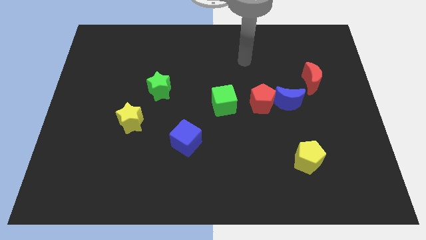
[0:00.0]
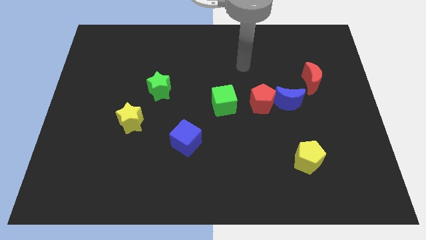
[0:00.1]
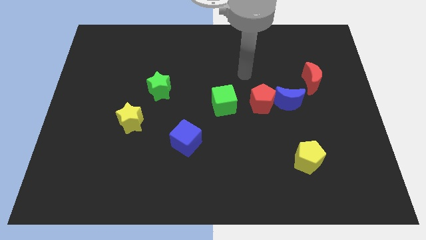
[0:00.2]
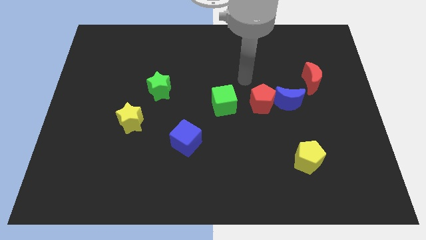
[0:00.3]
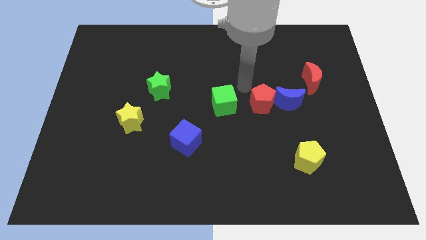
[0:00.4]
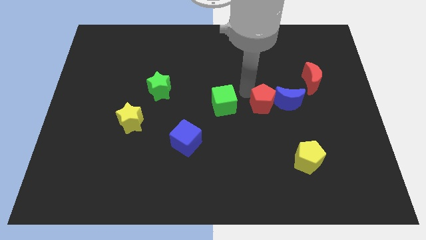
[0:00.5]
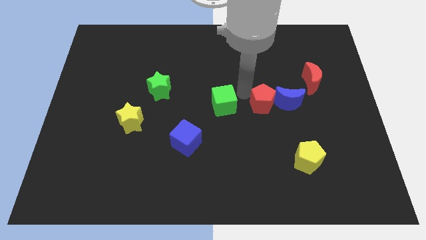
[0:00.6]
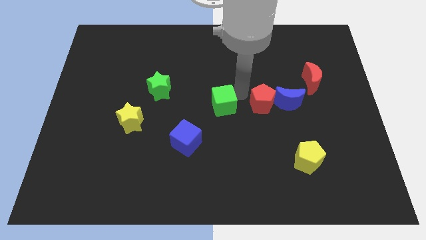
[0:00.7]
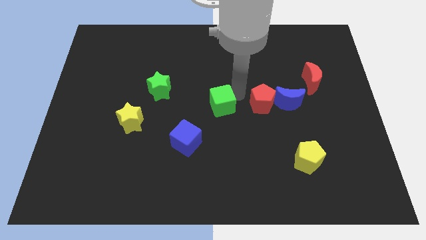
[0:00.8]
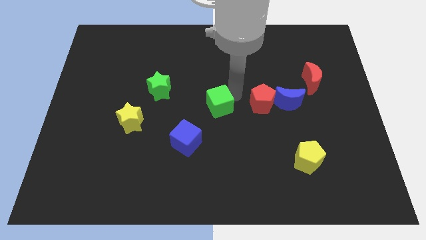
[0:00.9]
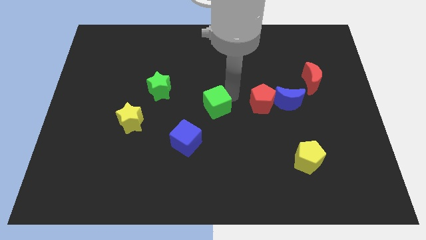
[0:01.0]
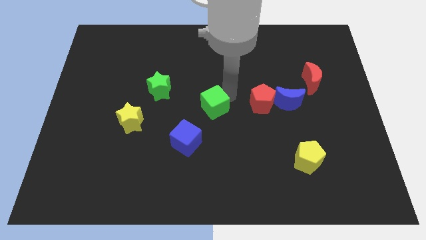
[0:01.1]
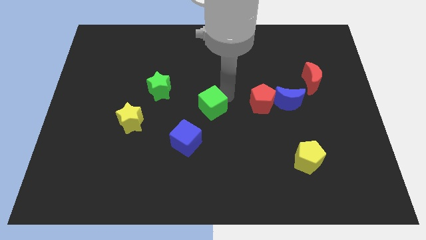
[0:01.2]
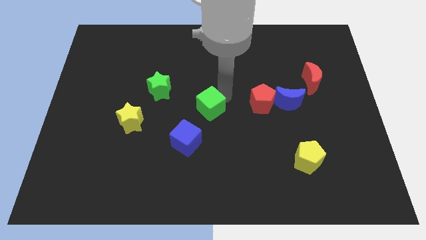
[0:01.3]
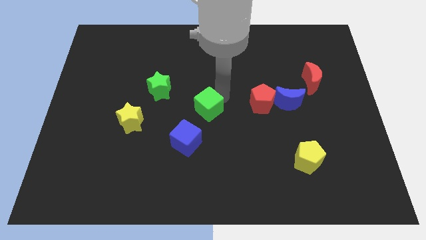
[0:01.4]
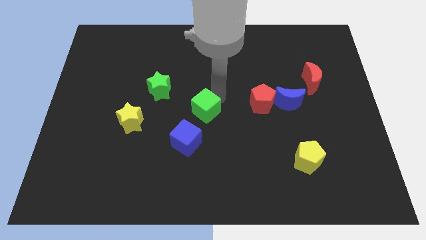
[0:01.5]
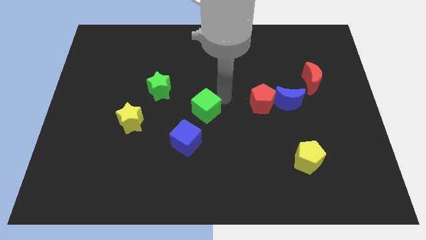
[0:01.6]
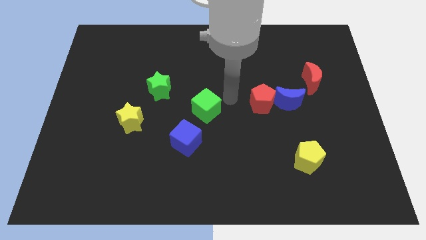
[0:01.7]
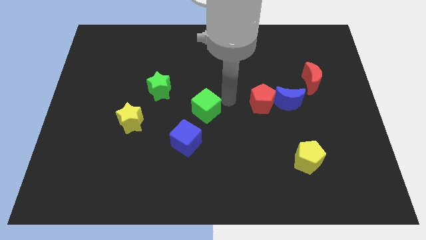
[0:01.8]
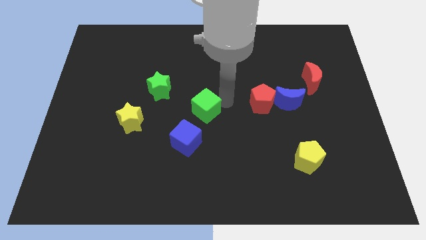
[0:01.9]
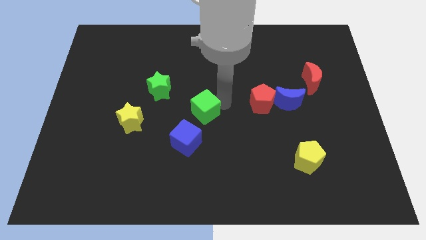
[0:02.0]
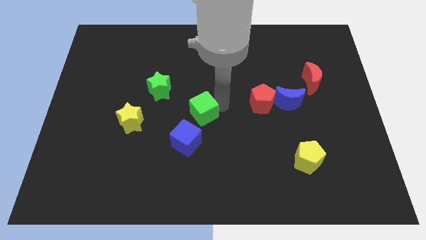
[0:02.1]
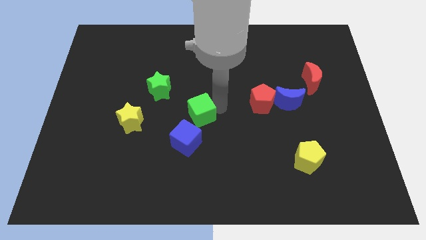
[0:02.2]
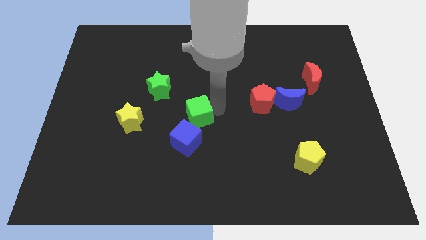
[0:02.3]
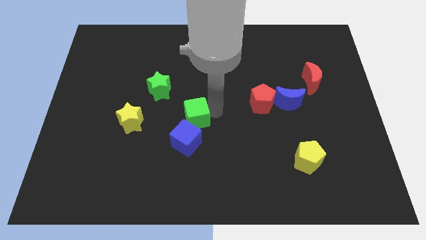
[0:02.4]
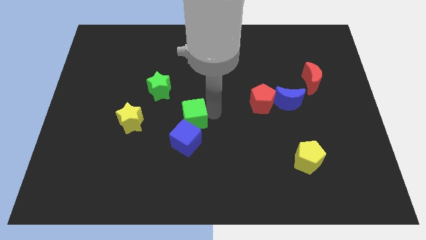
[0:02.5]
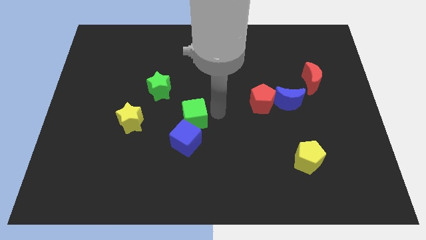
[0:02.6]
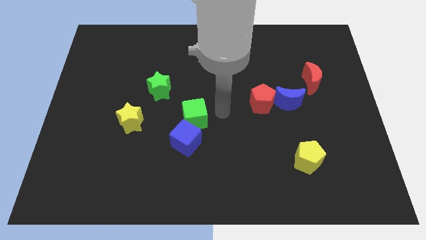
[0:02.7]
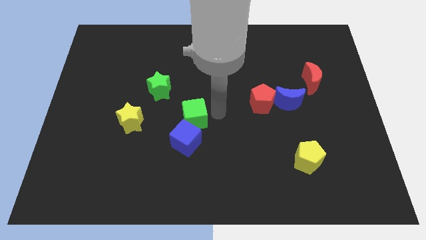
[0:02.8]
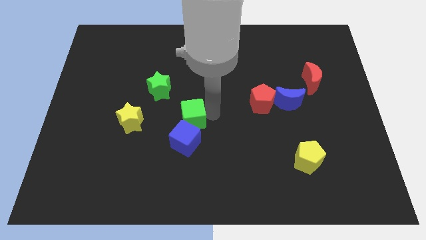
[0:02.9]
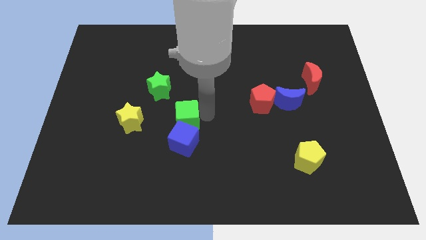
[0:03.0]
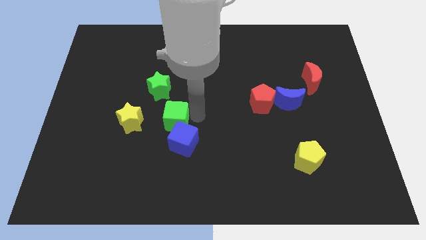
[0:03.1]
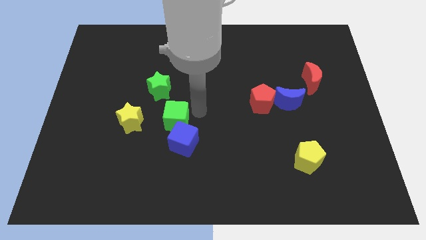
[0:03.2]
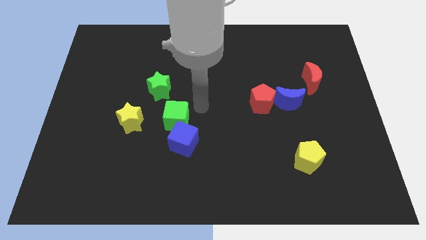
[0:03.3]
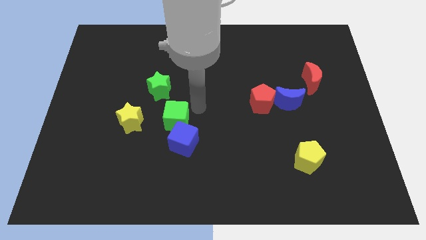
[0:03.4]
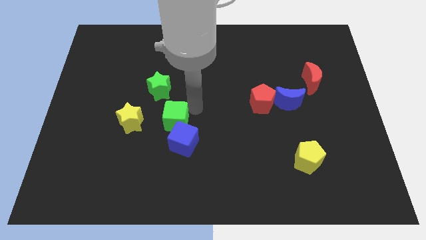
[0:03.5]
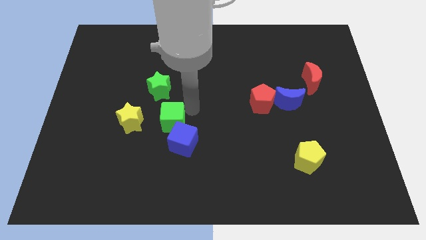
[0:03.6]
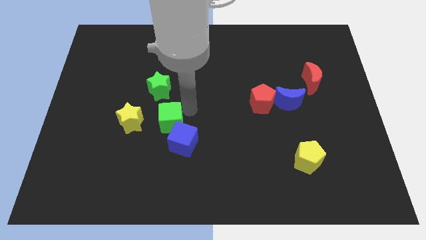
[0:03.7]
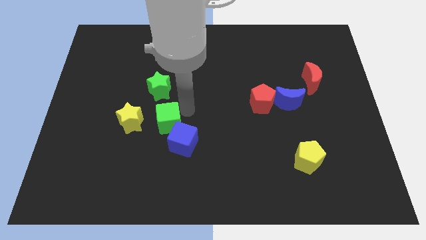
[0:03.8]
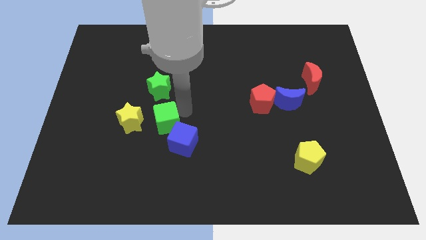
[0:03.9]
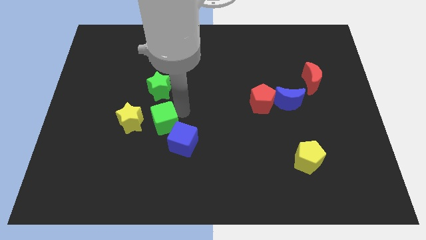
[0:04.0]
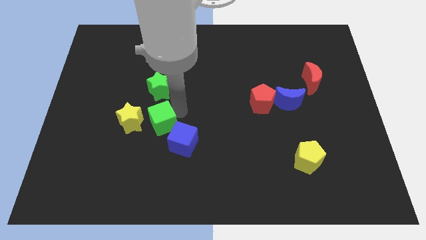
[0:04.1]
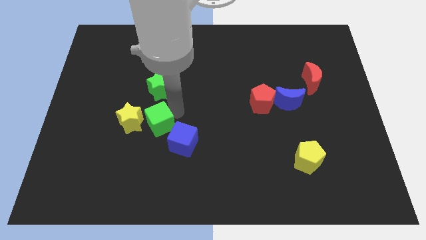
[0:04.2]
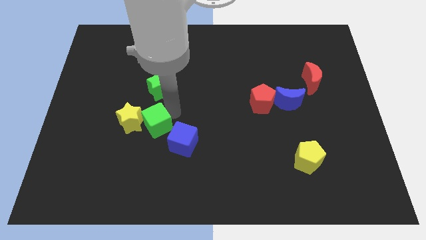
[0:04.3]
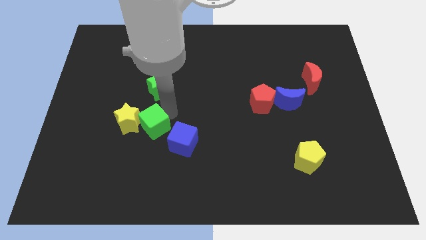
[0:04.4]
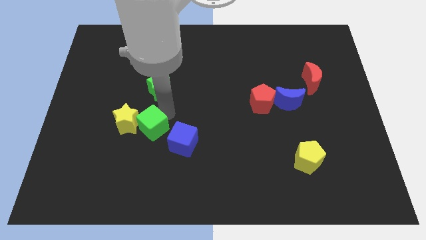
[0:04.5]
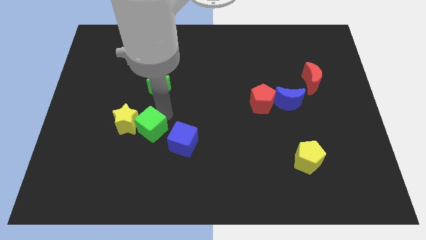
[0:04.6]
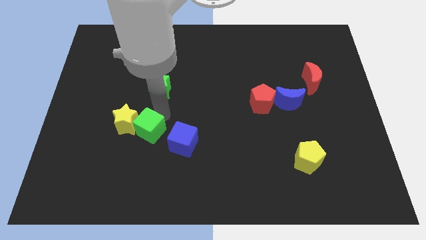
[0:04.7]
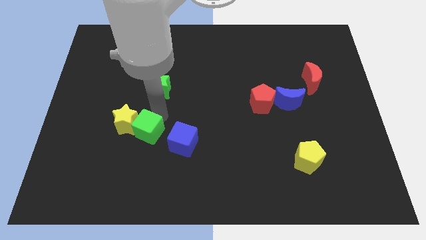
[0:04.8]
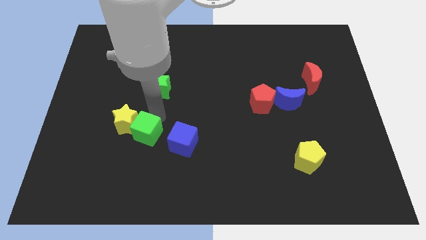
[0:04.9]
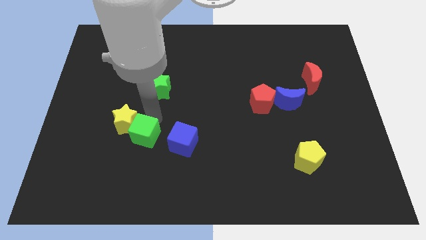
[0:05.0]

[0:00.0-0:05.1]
put the green cube to the bottom side of the yellow star

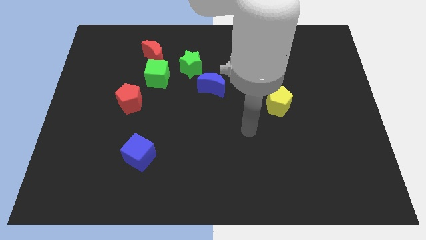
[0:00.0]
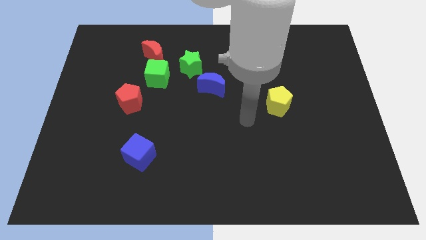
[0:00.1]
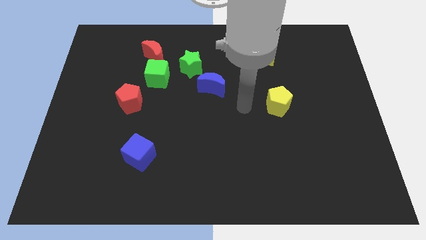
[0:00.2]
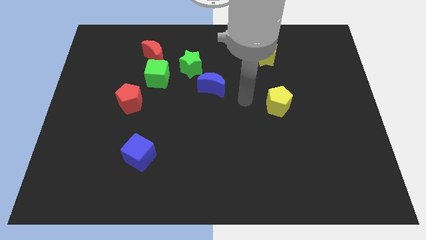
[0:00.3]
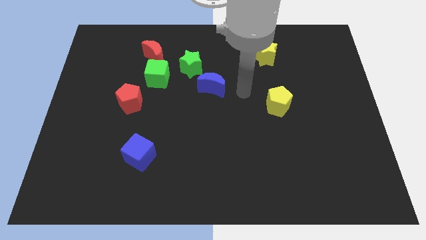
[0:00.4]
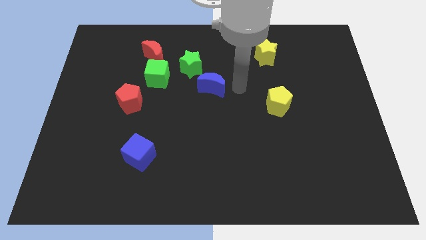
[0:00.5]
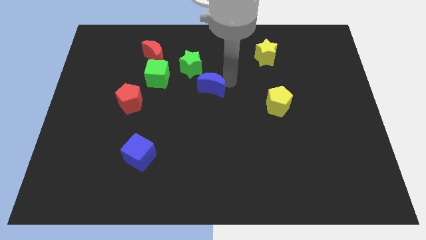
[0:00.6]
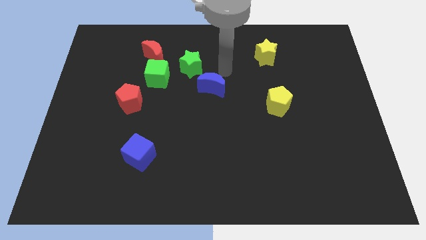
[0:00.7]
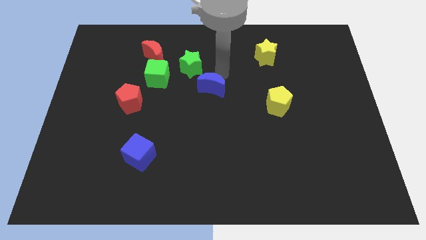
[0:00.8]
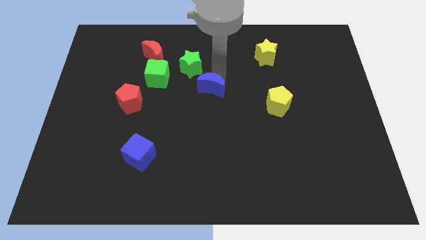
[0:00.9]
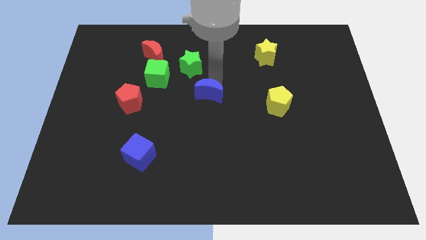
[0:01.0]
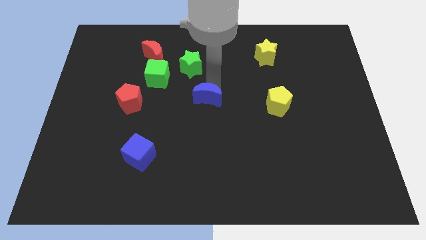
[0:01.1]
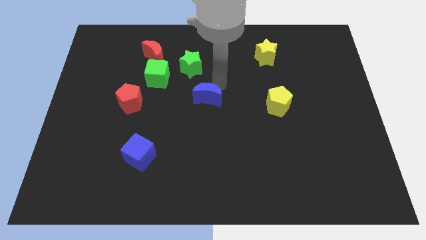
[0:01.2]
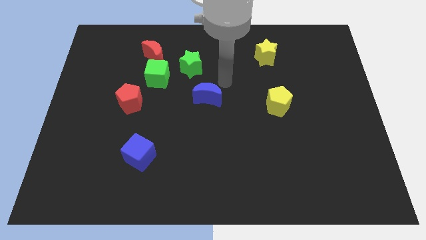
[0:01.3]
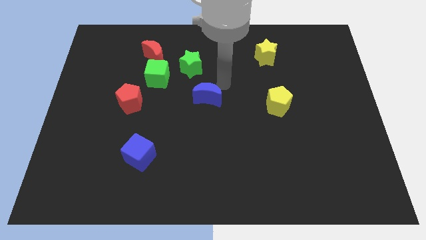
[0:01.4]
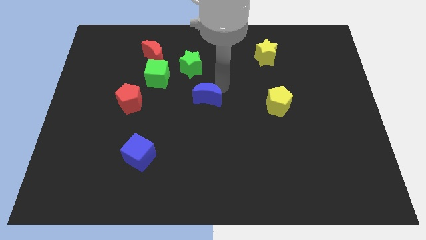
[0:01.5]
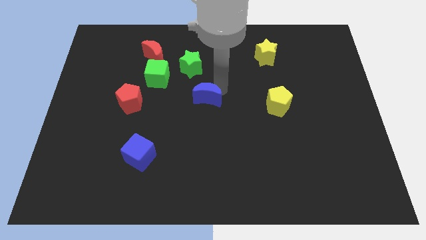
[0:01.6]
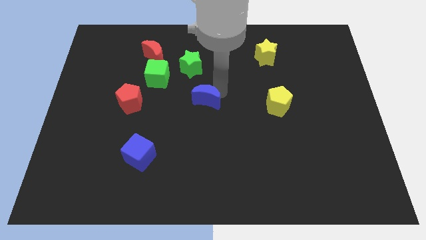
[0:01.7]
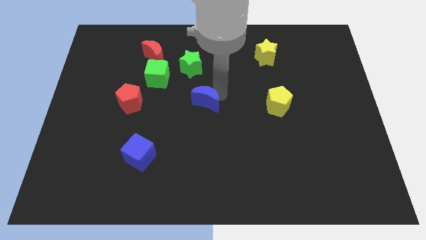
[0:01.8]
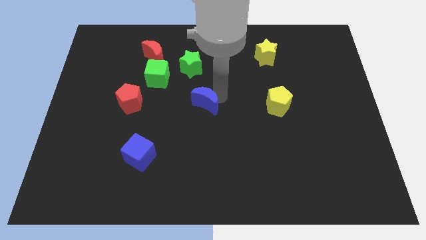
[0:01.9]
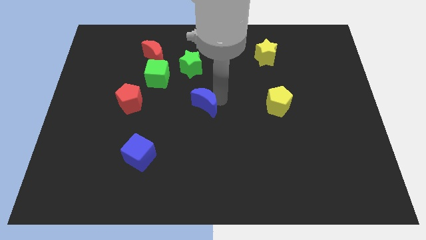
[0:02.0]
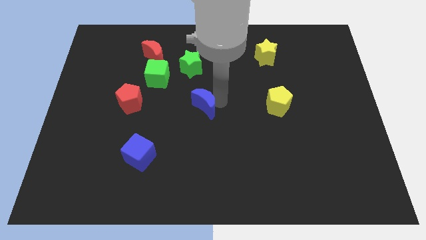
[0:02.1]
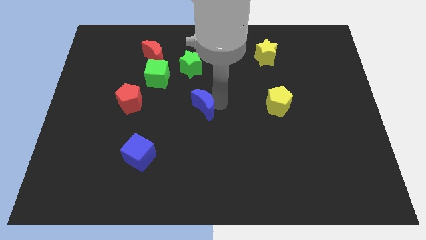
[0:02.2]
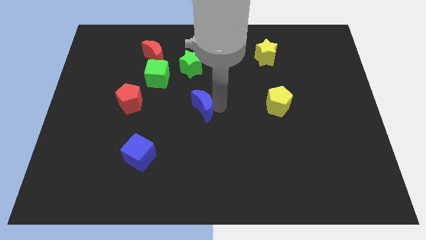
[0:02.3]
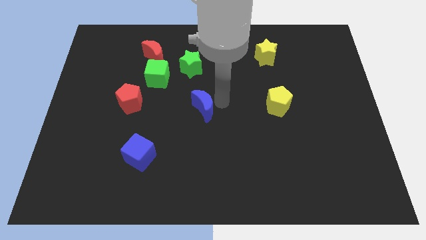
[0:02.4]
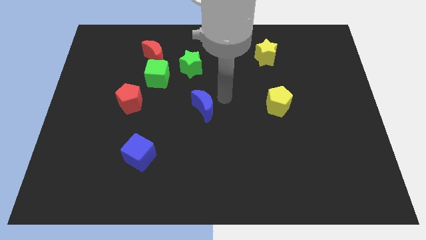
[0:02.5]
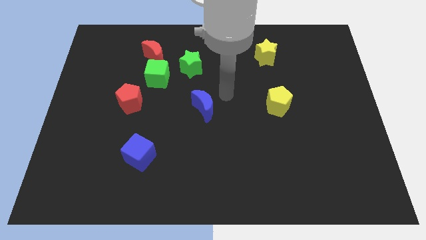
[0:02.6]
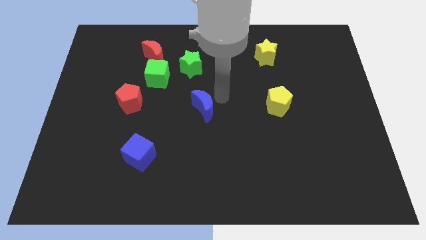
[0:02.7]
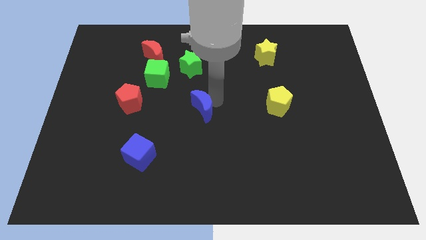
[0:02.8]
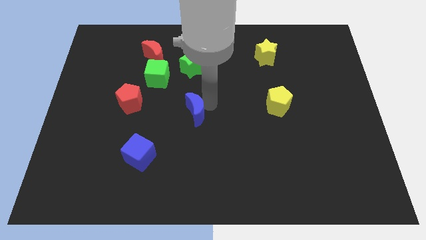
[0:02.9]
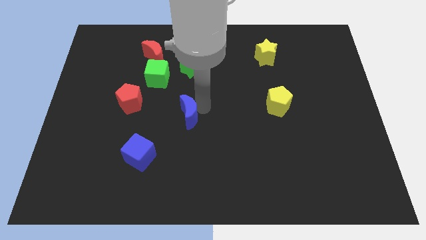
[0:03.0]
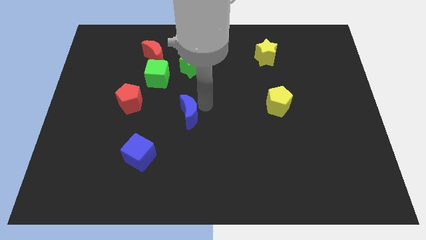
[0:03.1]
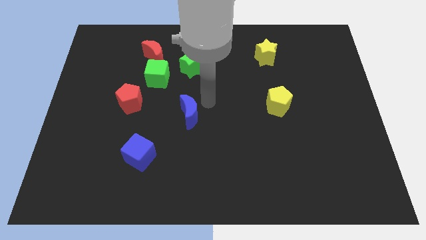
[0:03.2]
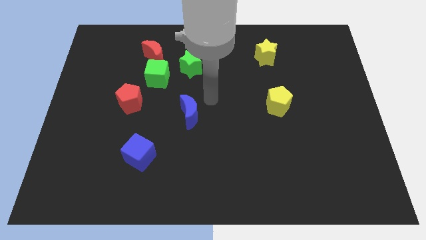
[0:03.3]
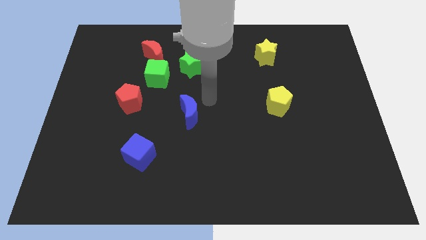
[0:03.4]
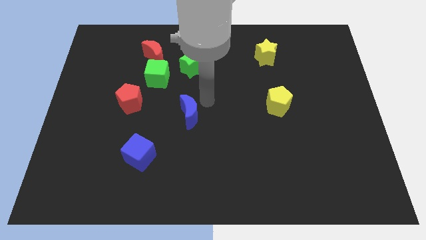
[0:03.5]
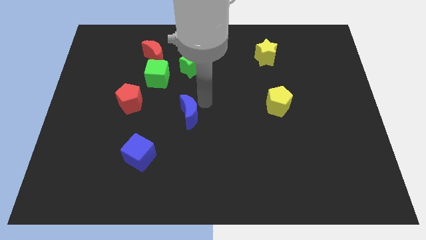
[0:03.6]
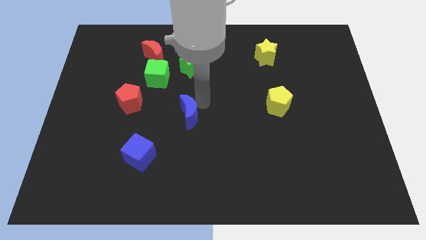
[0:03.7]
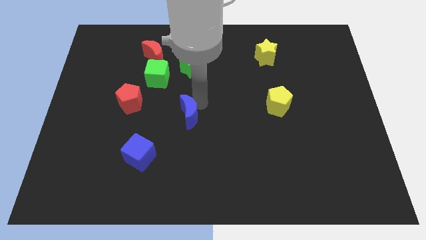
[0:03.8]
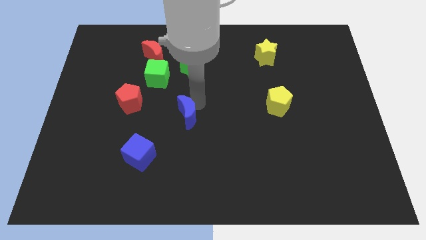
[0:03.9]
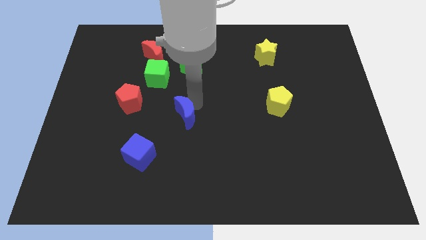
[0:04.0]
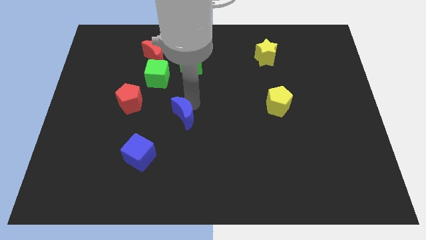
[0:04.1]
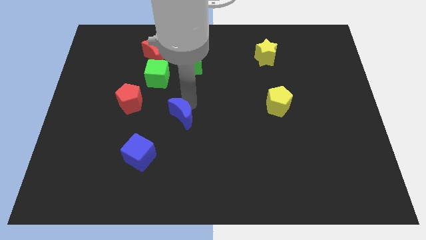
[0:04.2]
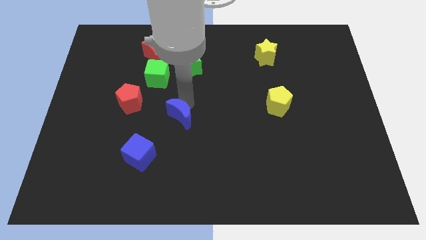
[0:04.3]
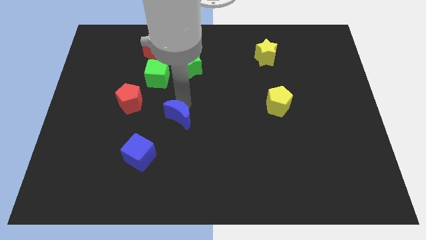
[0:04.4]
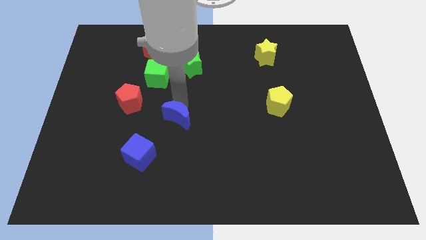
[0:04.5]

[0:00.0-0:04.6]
slide the blue moon to the top right of the blue cube
